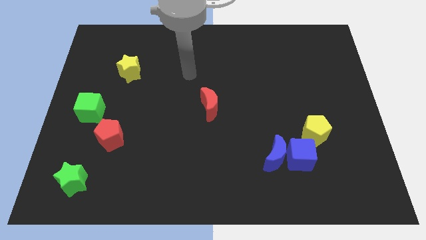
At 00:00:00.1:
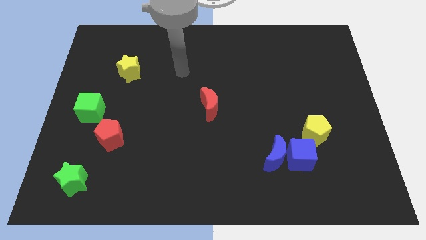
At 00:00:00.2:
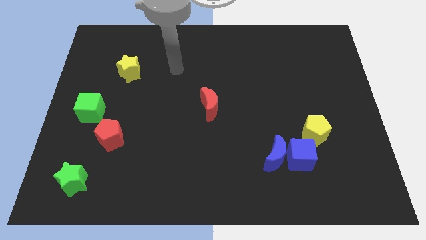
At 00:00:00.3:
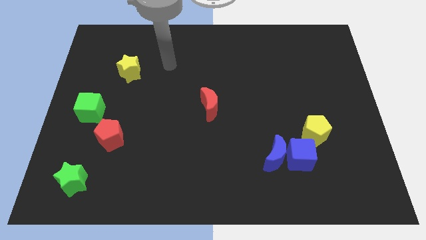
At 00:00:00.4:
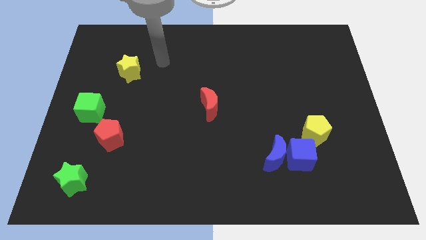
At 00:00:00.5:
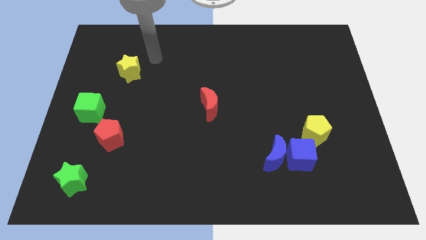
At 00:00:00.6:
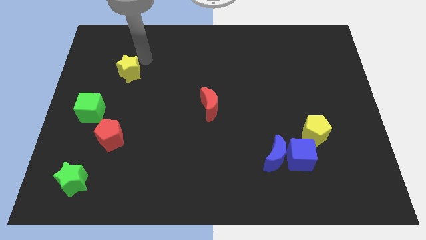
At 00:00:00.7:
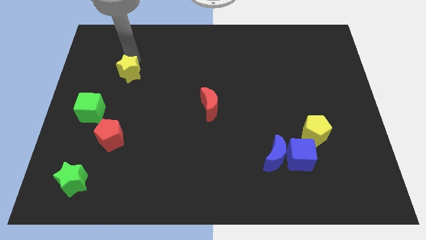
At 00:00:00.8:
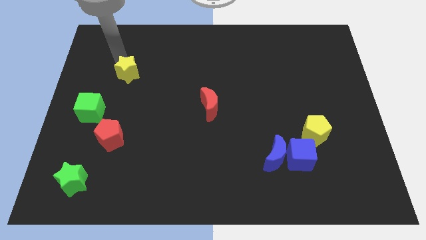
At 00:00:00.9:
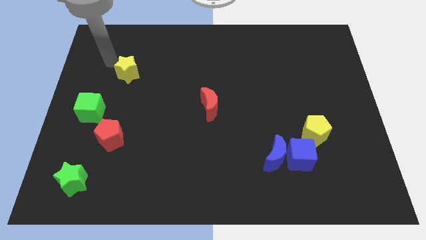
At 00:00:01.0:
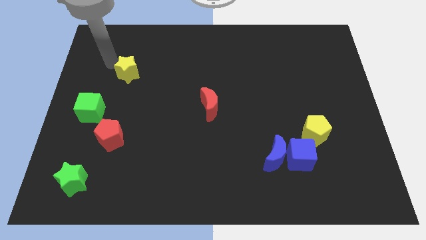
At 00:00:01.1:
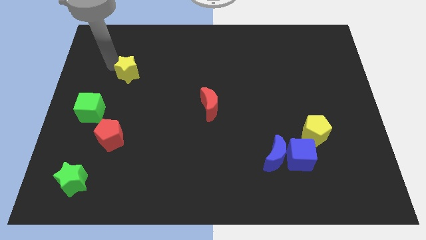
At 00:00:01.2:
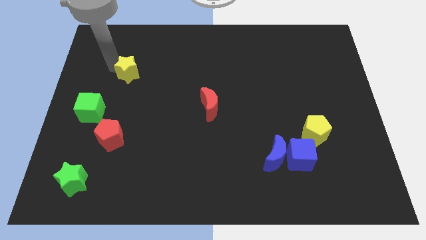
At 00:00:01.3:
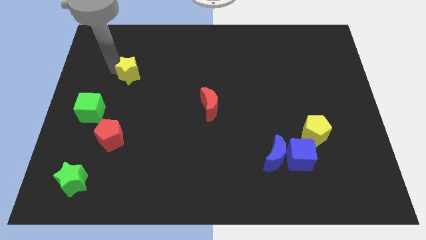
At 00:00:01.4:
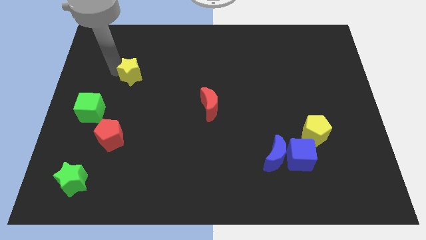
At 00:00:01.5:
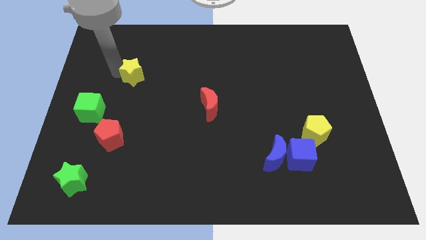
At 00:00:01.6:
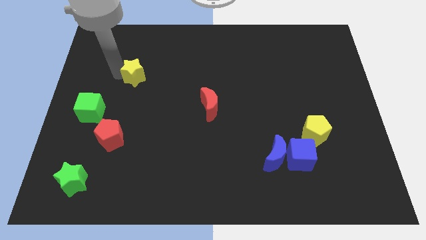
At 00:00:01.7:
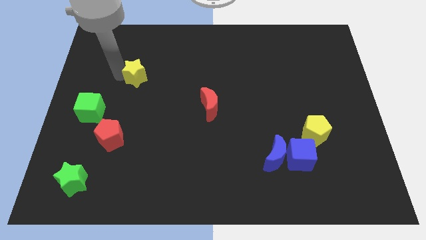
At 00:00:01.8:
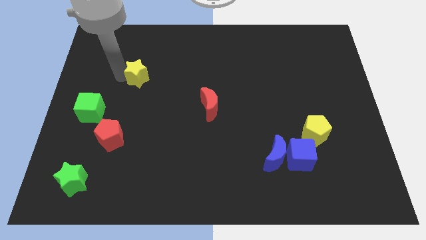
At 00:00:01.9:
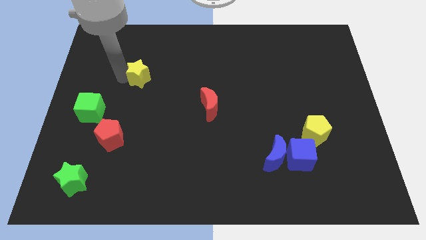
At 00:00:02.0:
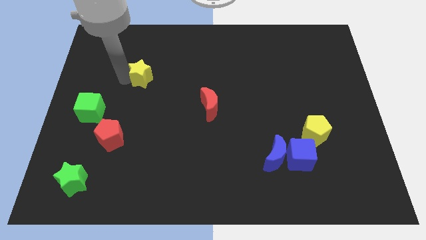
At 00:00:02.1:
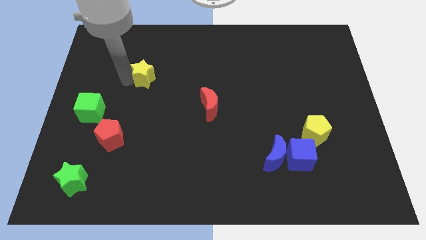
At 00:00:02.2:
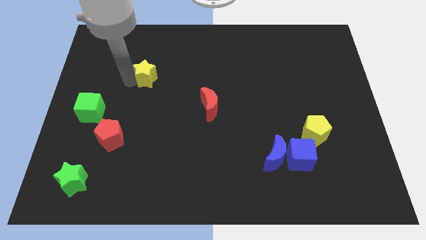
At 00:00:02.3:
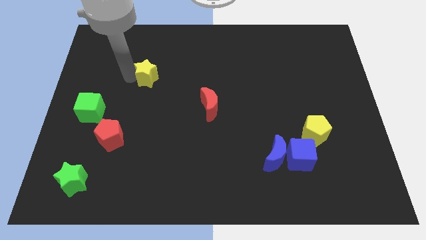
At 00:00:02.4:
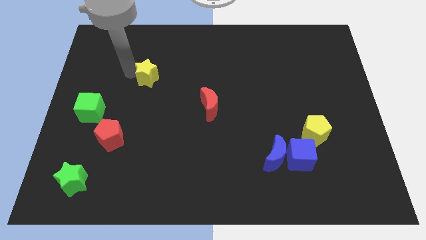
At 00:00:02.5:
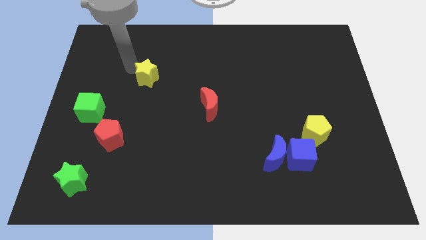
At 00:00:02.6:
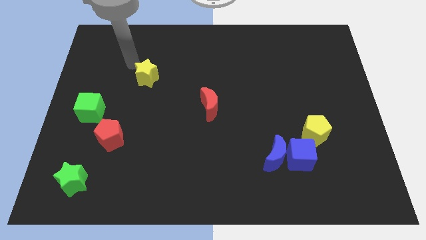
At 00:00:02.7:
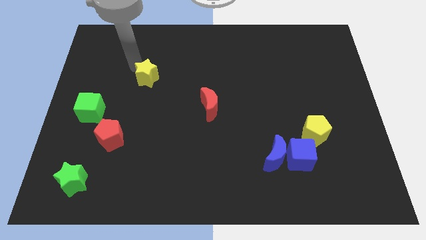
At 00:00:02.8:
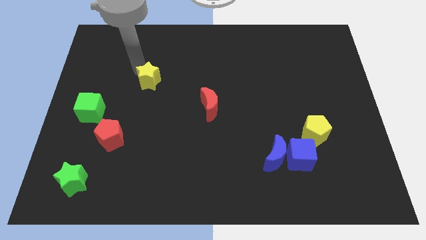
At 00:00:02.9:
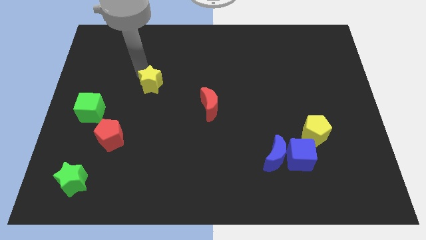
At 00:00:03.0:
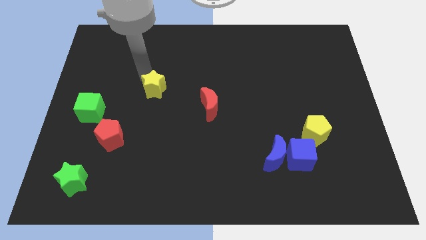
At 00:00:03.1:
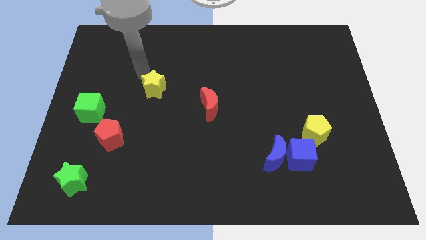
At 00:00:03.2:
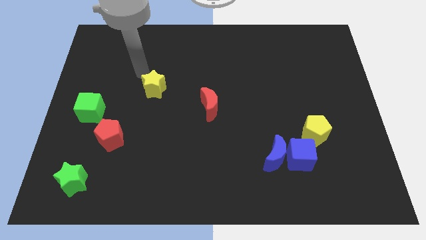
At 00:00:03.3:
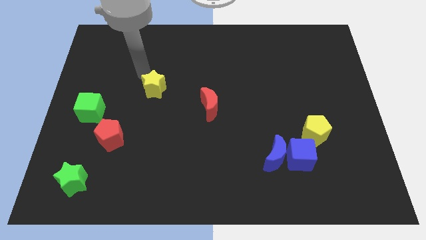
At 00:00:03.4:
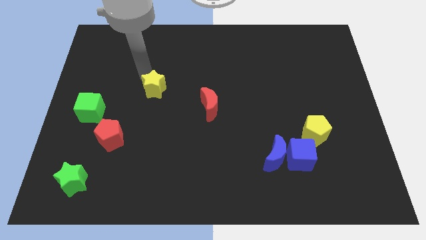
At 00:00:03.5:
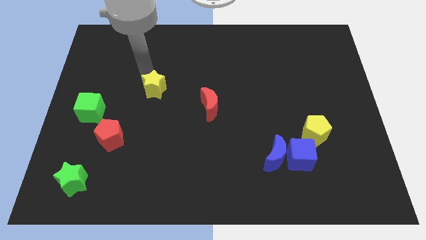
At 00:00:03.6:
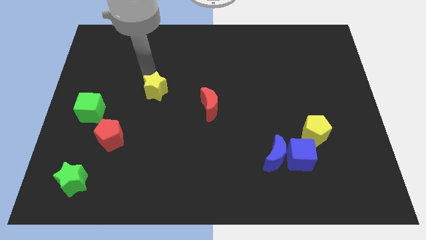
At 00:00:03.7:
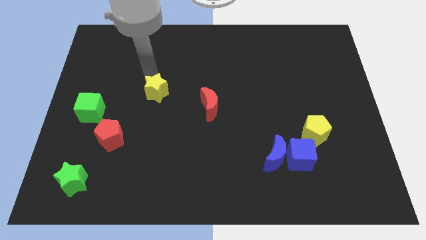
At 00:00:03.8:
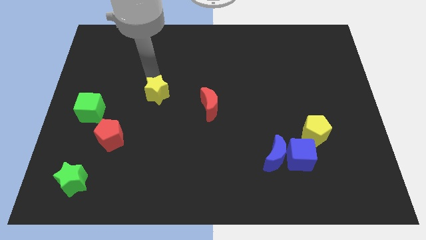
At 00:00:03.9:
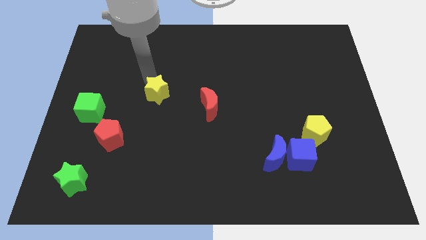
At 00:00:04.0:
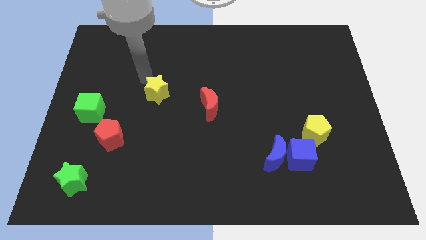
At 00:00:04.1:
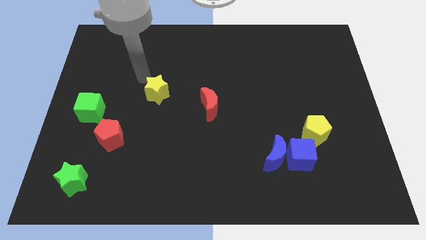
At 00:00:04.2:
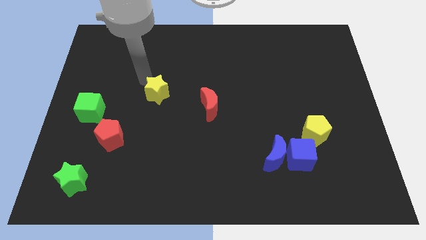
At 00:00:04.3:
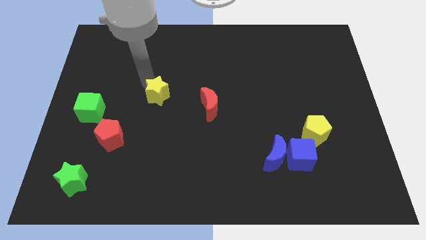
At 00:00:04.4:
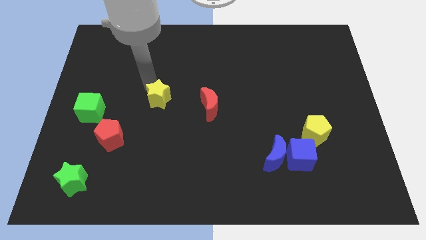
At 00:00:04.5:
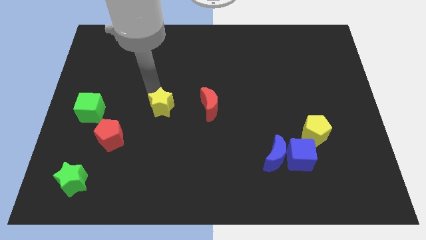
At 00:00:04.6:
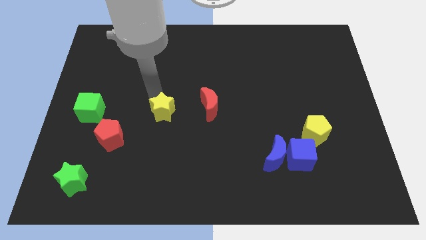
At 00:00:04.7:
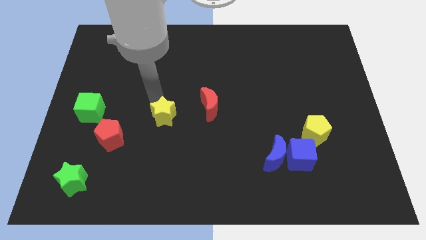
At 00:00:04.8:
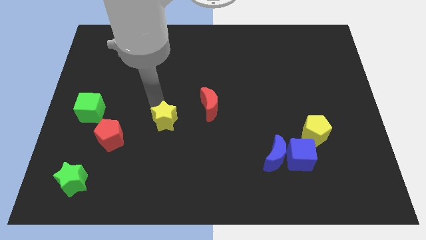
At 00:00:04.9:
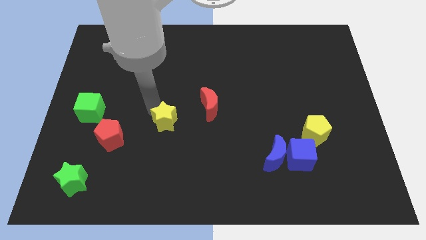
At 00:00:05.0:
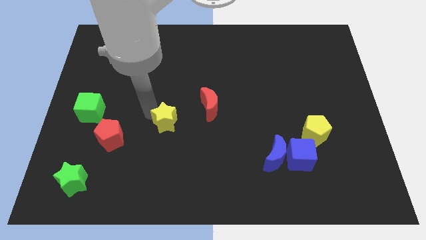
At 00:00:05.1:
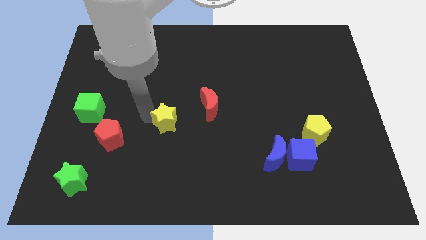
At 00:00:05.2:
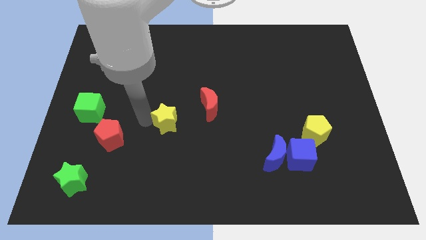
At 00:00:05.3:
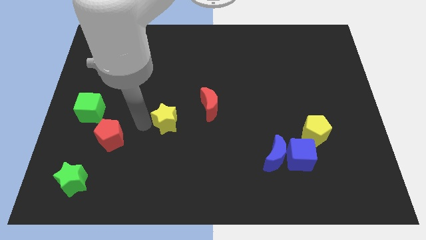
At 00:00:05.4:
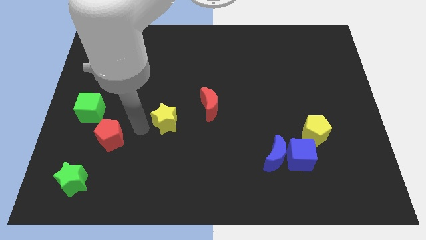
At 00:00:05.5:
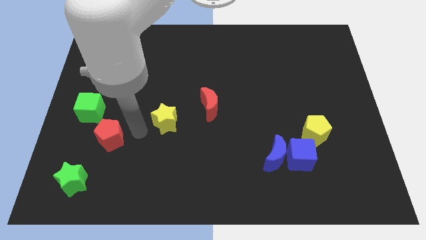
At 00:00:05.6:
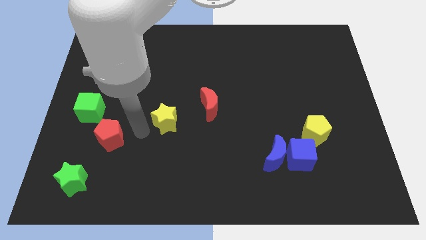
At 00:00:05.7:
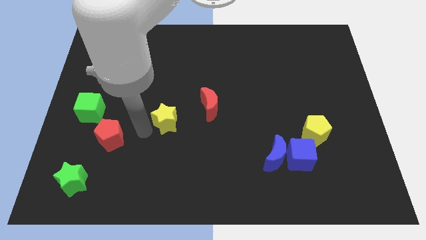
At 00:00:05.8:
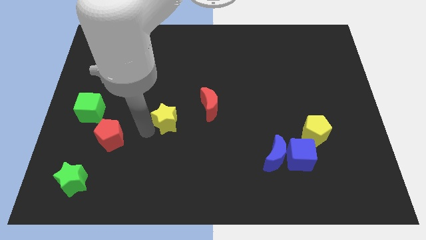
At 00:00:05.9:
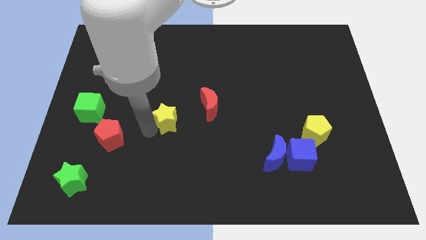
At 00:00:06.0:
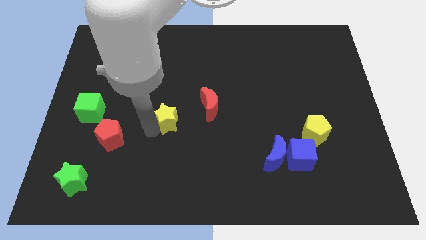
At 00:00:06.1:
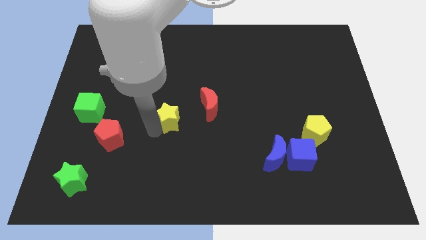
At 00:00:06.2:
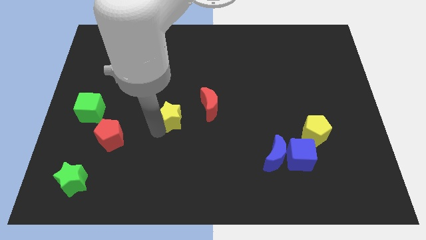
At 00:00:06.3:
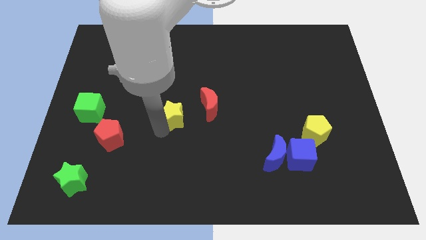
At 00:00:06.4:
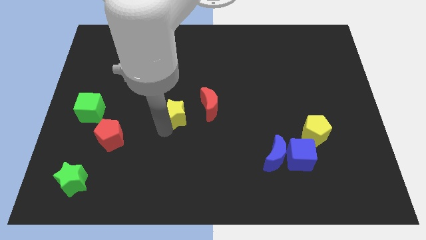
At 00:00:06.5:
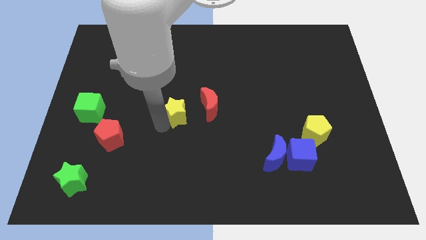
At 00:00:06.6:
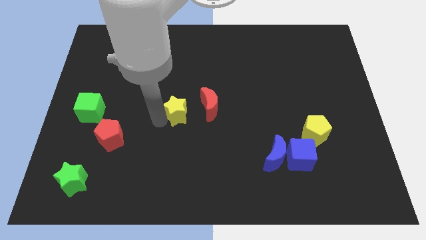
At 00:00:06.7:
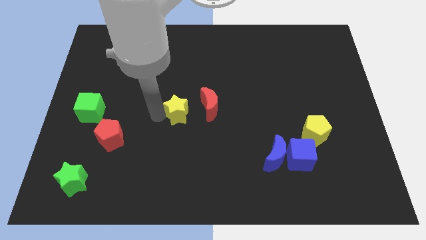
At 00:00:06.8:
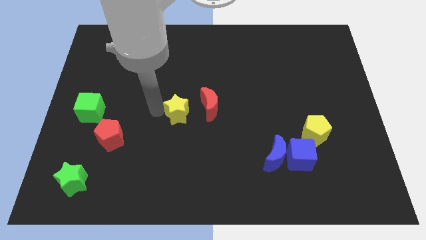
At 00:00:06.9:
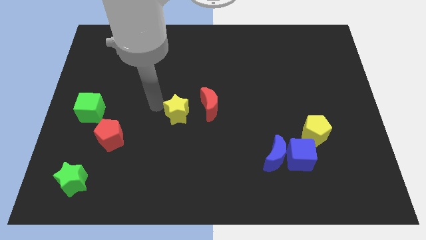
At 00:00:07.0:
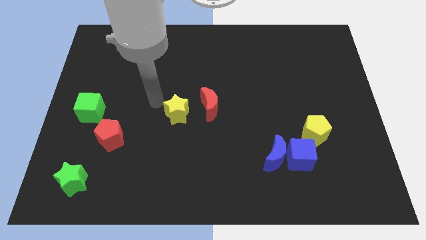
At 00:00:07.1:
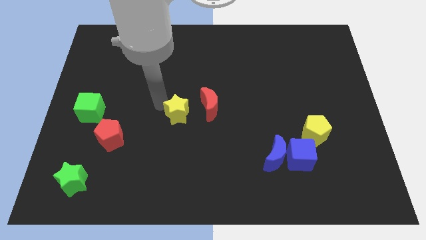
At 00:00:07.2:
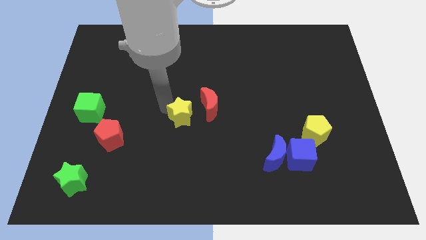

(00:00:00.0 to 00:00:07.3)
push the yellow star down and then right

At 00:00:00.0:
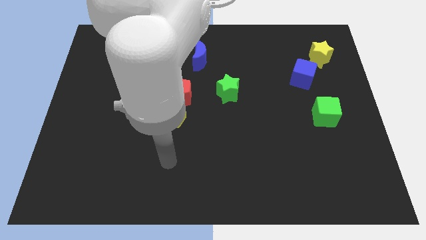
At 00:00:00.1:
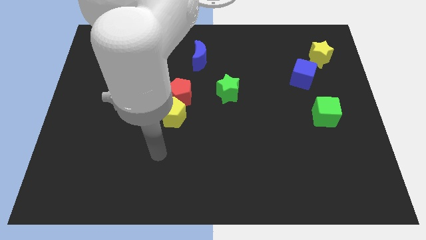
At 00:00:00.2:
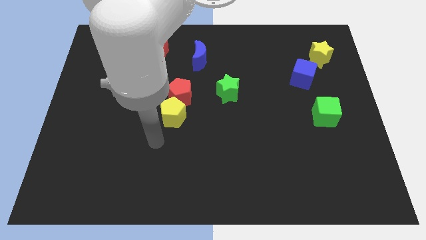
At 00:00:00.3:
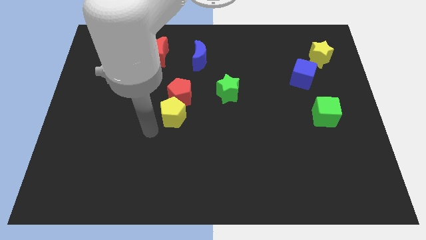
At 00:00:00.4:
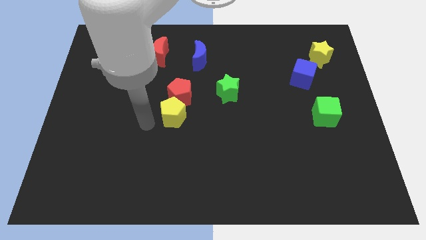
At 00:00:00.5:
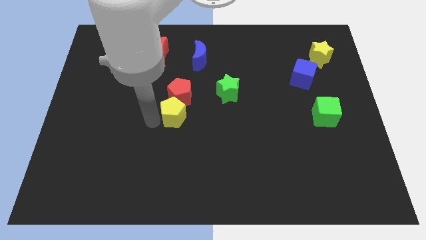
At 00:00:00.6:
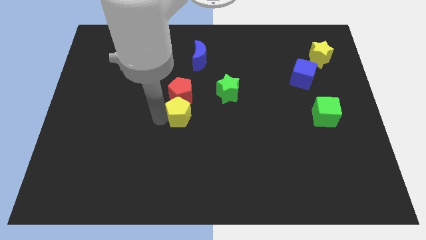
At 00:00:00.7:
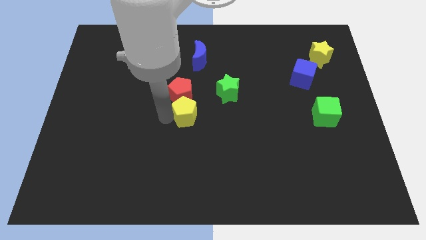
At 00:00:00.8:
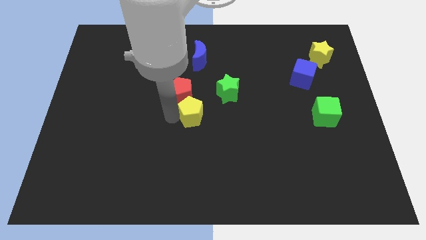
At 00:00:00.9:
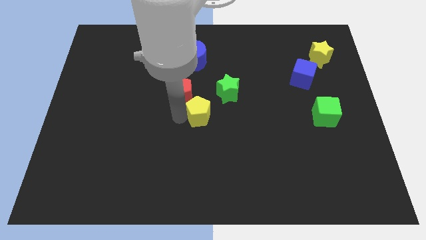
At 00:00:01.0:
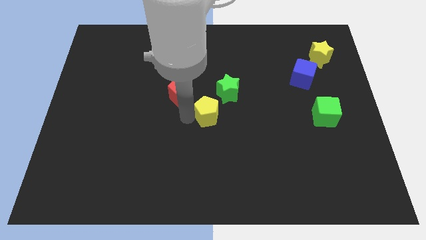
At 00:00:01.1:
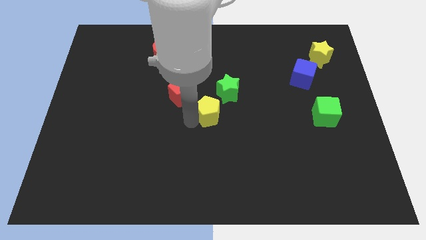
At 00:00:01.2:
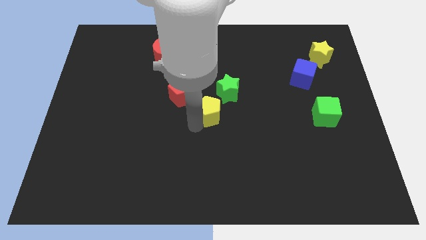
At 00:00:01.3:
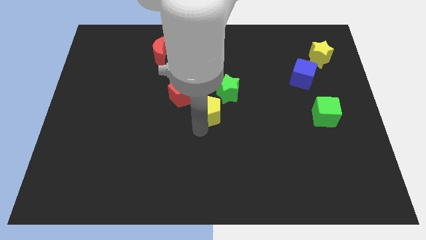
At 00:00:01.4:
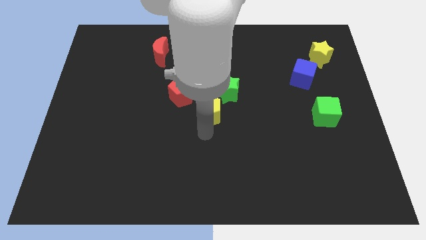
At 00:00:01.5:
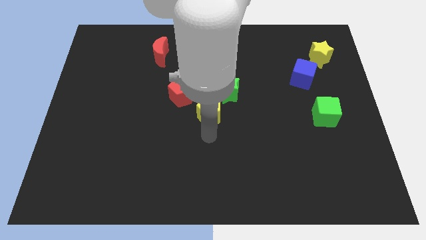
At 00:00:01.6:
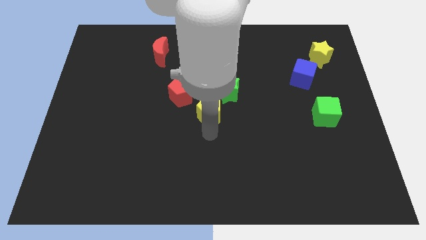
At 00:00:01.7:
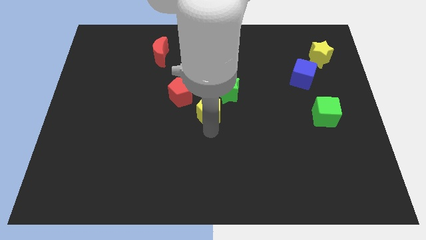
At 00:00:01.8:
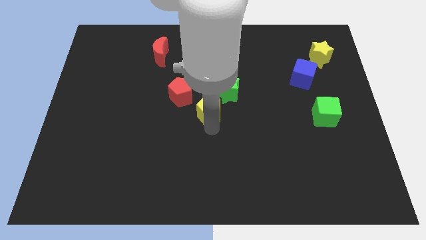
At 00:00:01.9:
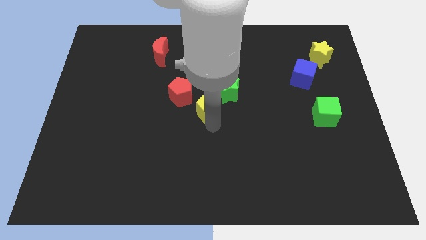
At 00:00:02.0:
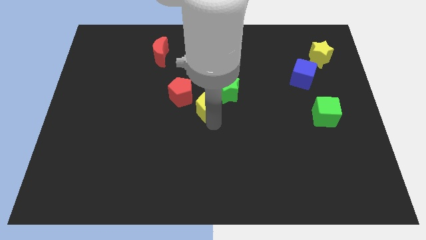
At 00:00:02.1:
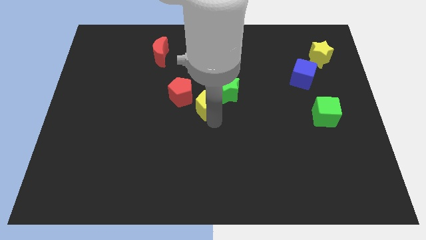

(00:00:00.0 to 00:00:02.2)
move the yellow pentagon up and right diagonally a little
